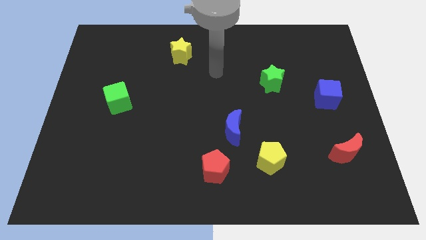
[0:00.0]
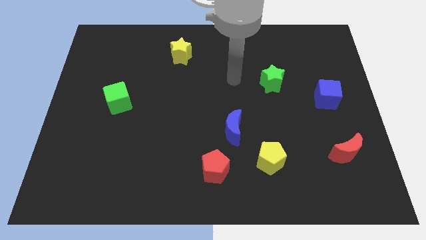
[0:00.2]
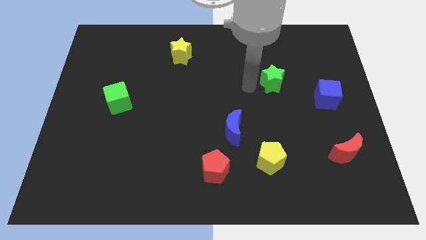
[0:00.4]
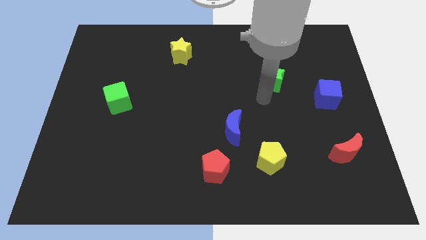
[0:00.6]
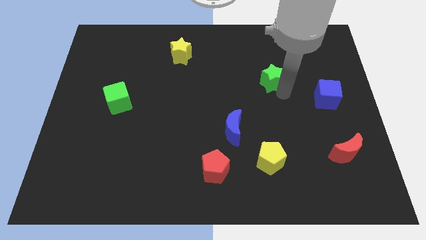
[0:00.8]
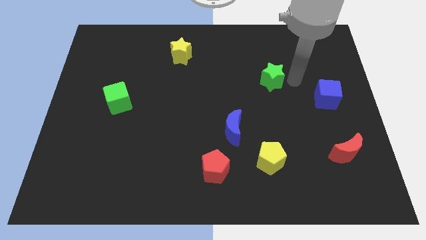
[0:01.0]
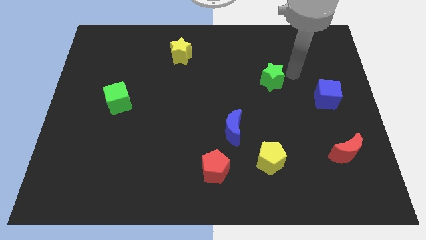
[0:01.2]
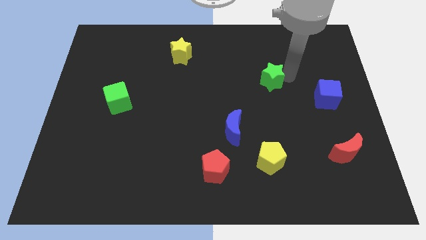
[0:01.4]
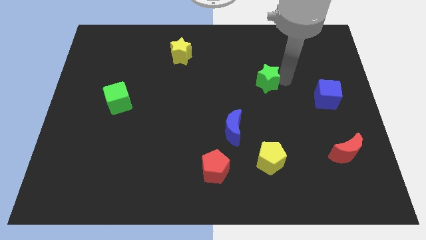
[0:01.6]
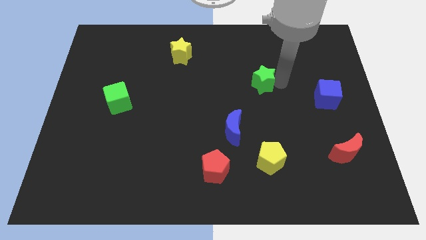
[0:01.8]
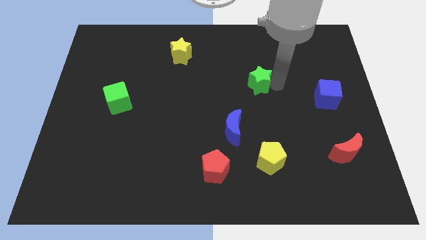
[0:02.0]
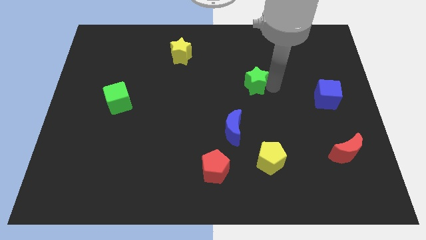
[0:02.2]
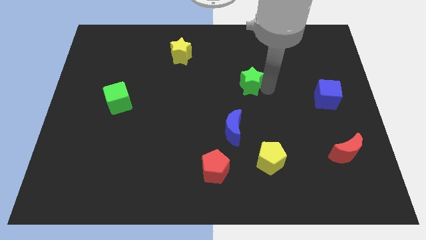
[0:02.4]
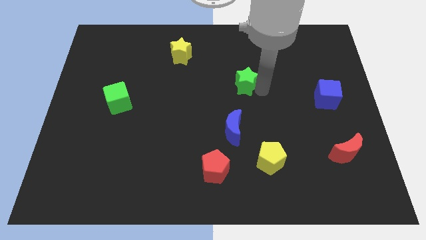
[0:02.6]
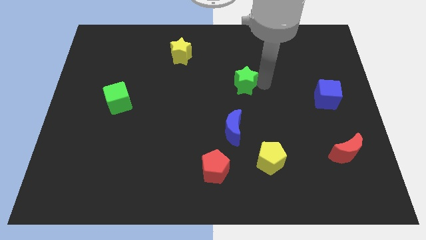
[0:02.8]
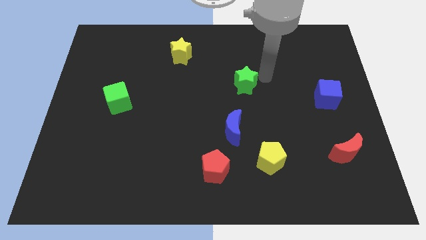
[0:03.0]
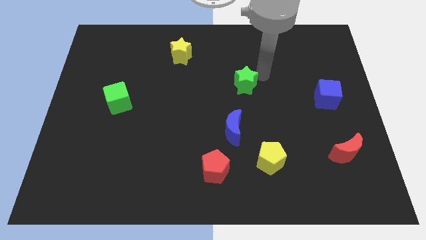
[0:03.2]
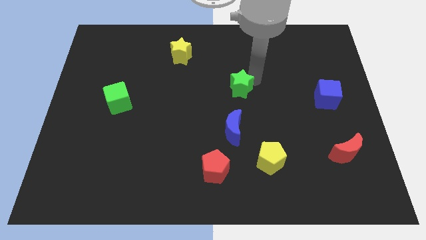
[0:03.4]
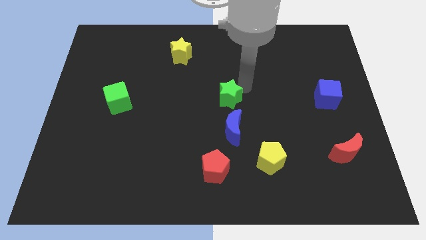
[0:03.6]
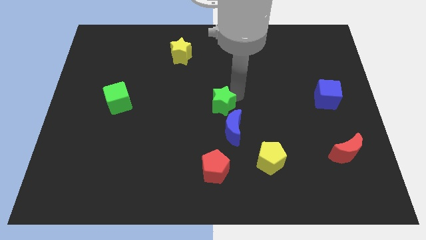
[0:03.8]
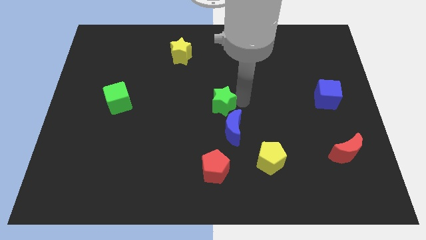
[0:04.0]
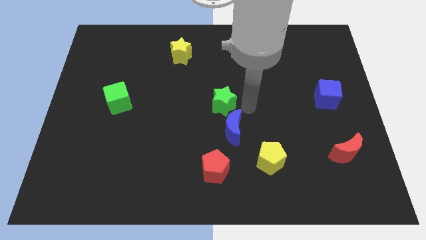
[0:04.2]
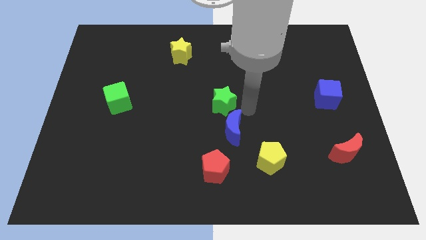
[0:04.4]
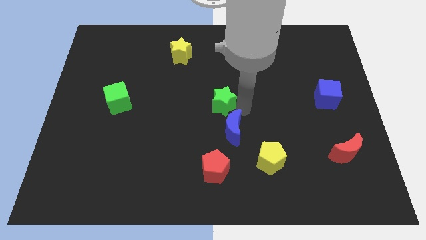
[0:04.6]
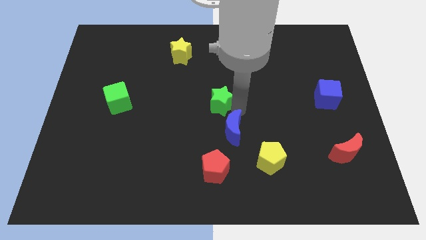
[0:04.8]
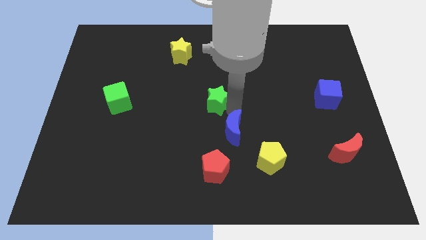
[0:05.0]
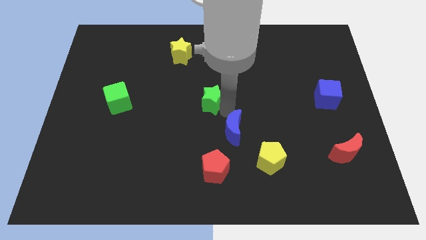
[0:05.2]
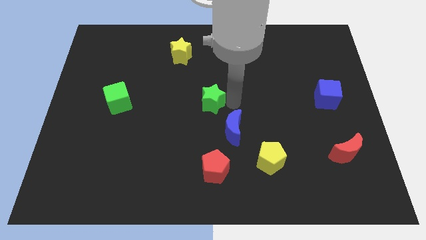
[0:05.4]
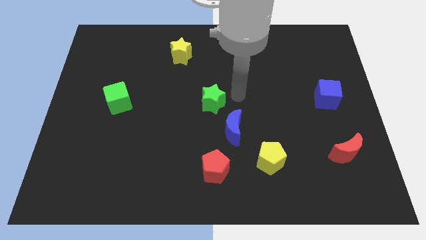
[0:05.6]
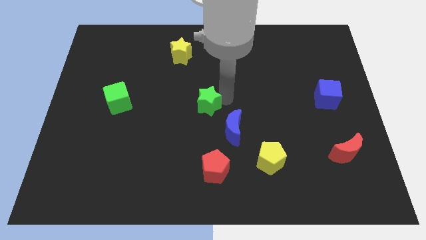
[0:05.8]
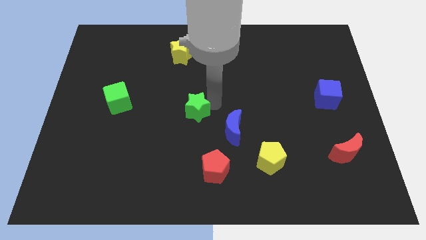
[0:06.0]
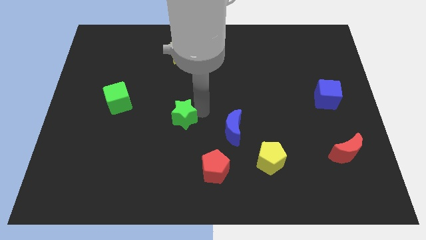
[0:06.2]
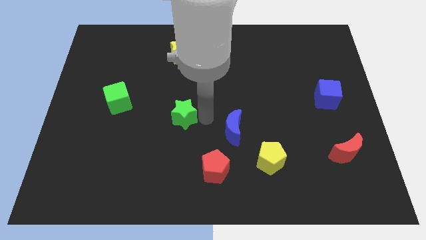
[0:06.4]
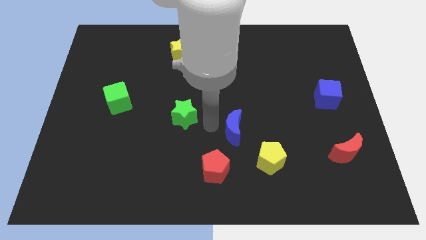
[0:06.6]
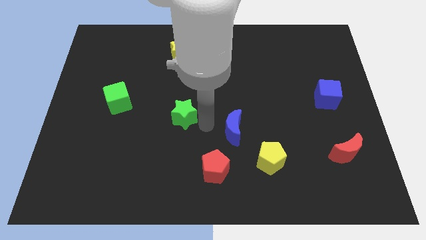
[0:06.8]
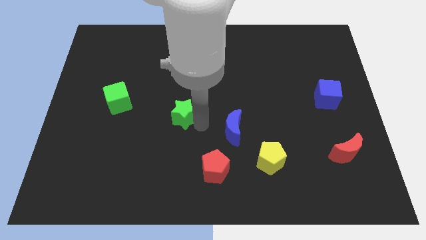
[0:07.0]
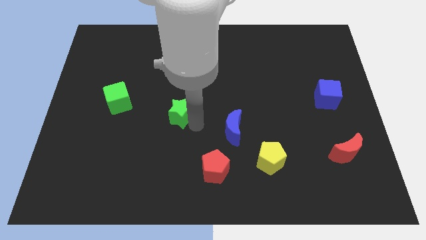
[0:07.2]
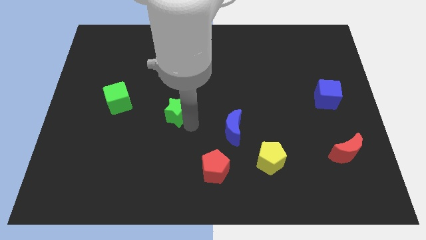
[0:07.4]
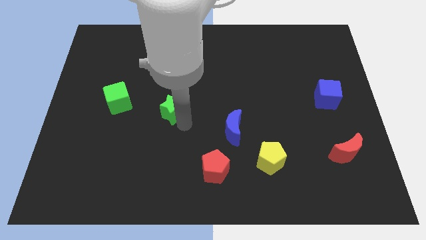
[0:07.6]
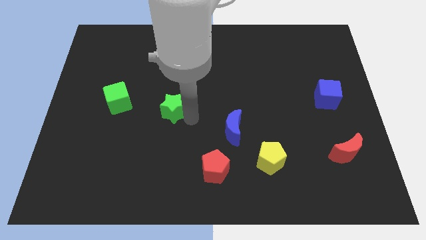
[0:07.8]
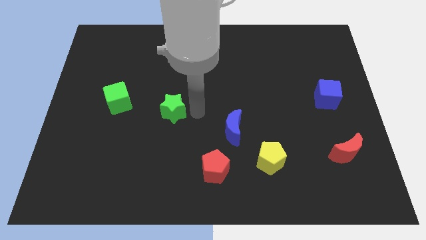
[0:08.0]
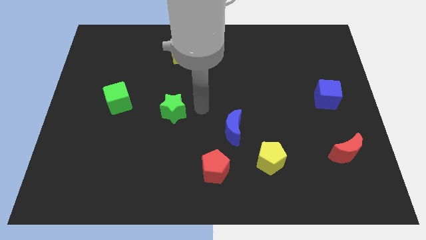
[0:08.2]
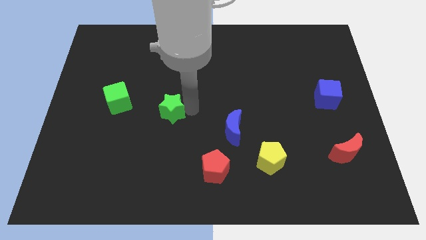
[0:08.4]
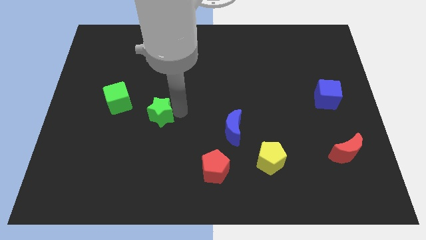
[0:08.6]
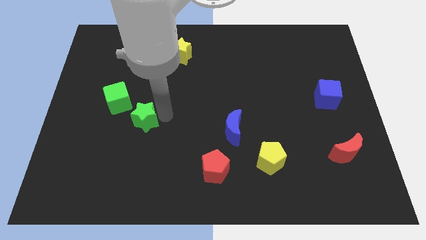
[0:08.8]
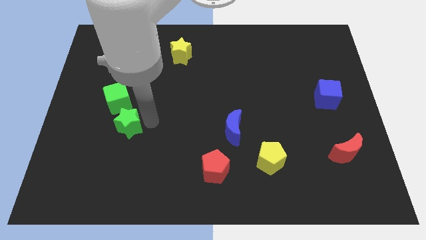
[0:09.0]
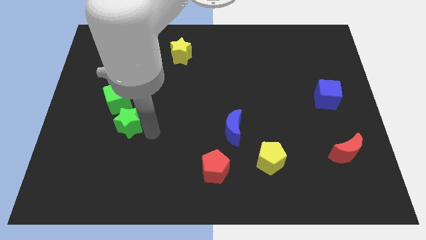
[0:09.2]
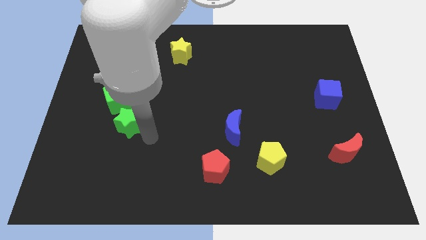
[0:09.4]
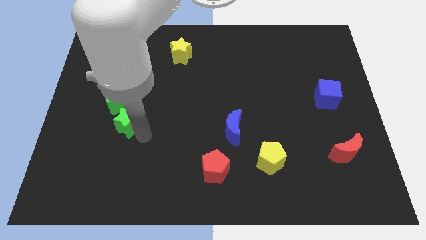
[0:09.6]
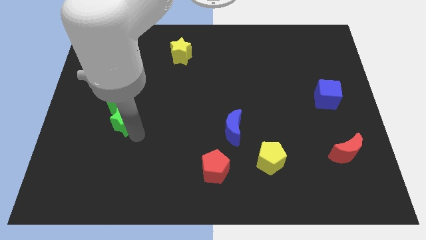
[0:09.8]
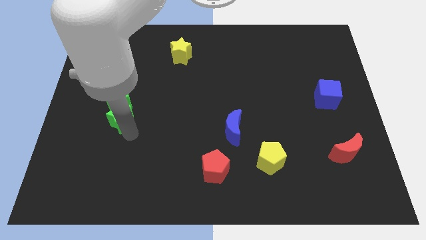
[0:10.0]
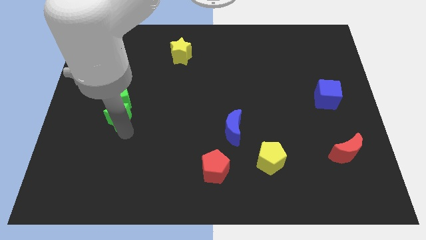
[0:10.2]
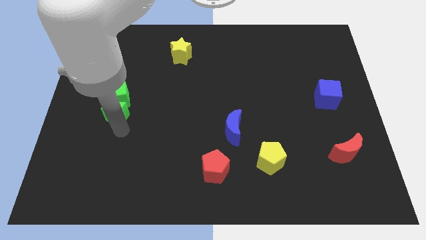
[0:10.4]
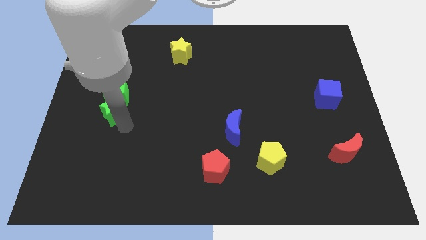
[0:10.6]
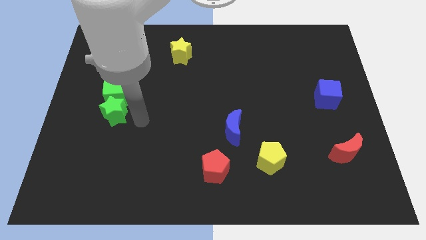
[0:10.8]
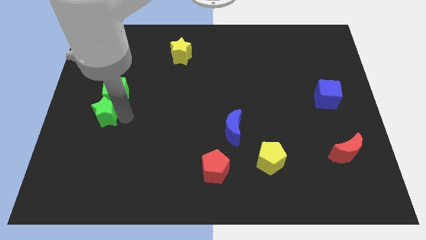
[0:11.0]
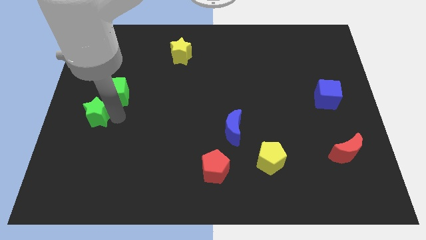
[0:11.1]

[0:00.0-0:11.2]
slide the green star to the left side of the board
